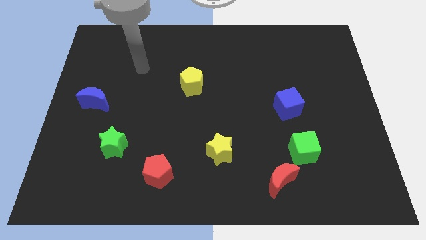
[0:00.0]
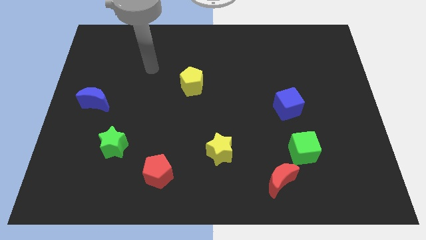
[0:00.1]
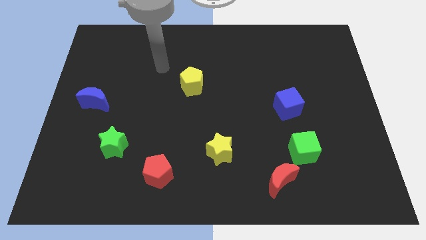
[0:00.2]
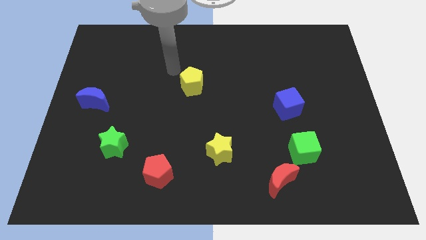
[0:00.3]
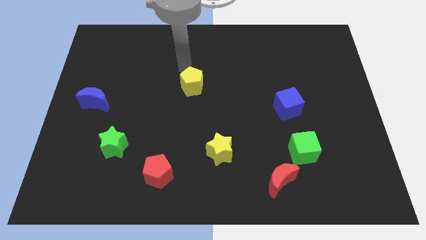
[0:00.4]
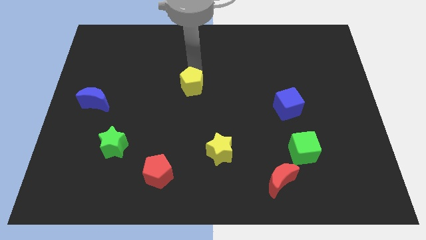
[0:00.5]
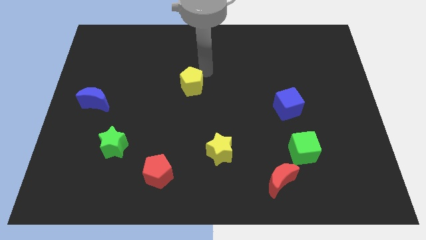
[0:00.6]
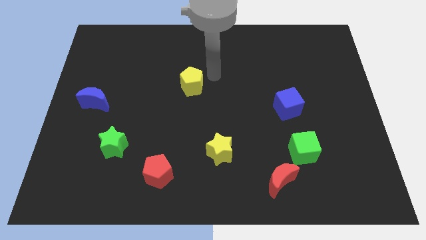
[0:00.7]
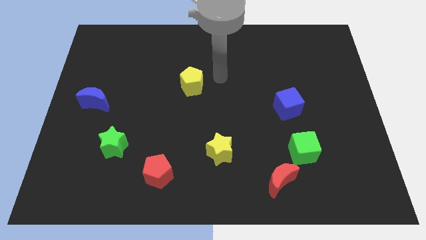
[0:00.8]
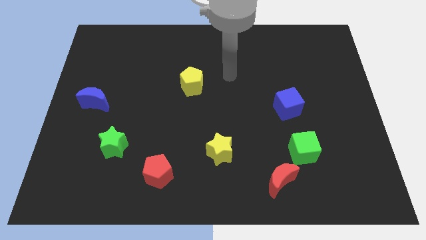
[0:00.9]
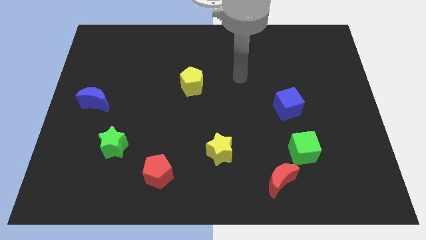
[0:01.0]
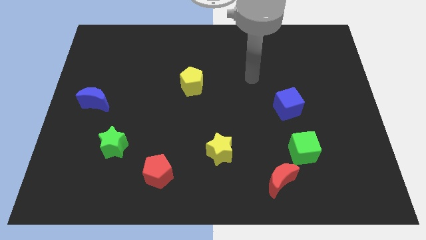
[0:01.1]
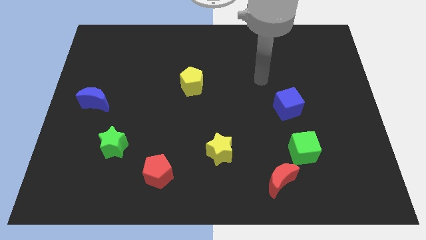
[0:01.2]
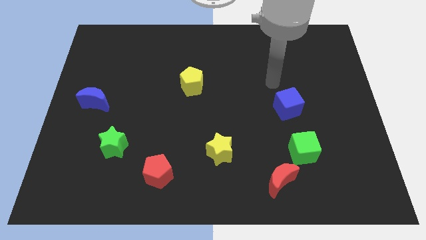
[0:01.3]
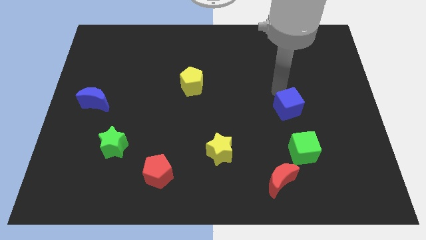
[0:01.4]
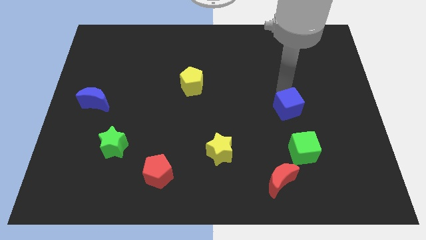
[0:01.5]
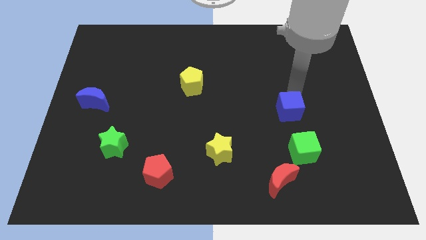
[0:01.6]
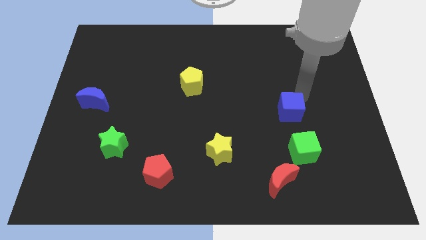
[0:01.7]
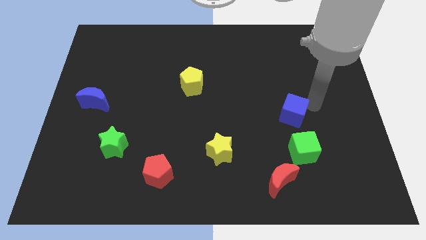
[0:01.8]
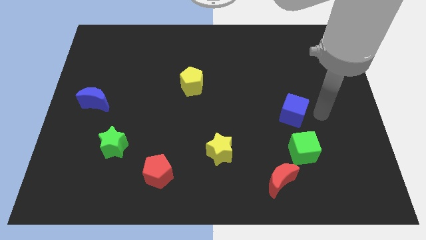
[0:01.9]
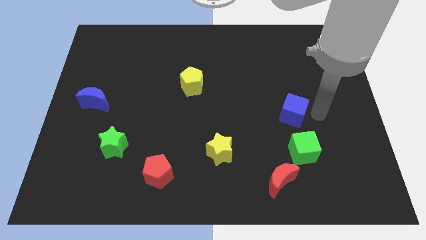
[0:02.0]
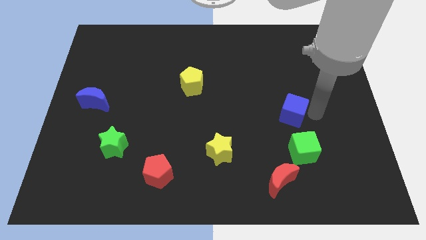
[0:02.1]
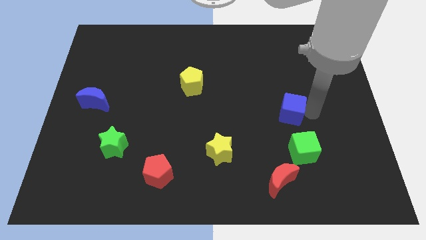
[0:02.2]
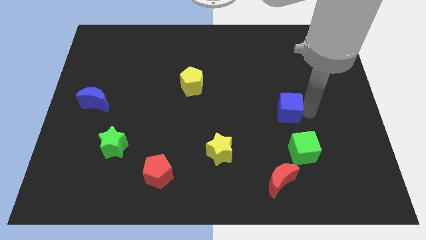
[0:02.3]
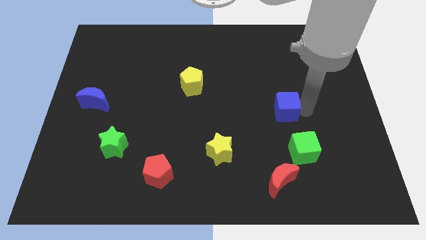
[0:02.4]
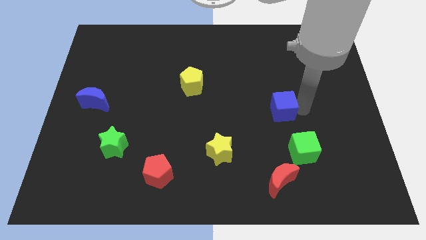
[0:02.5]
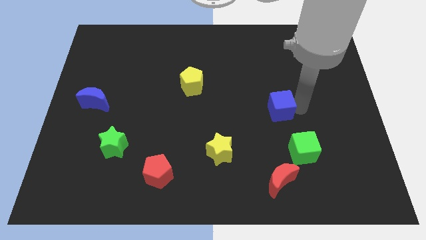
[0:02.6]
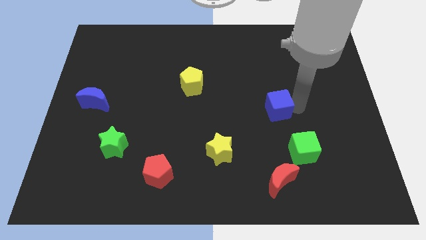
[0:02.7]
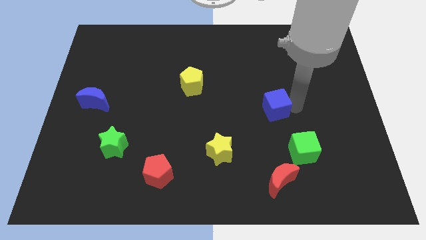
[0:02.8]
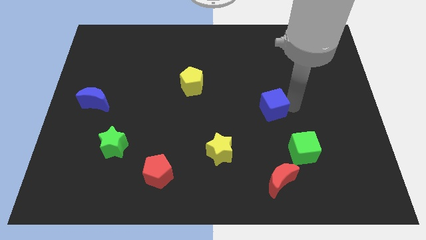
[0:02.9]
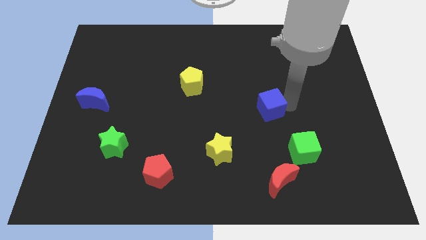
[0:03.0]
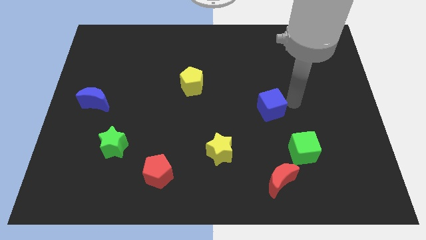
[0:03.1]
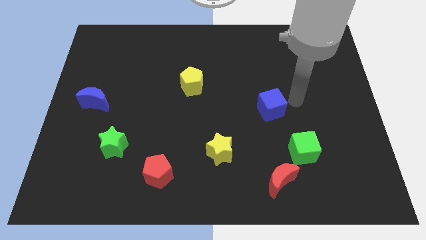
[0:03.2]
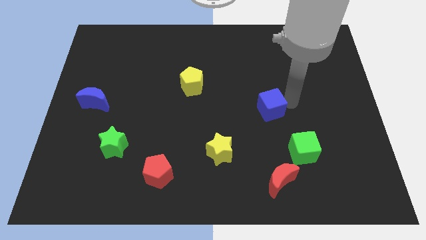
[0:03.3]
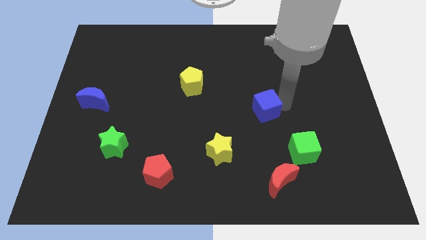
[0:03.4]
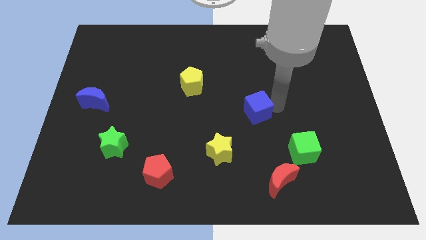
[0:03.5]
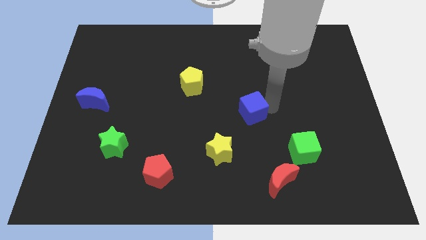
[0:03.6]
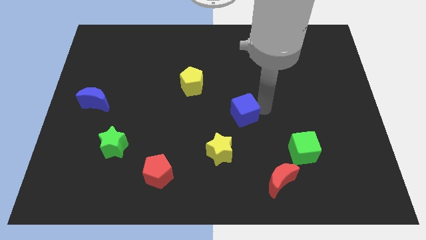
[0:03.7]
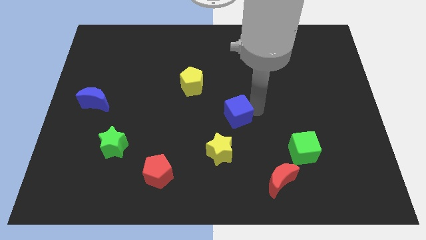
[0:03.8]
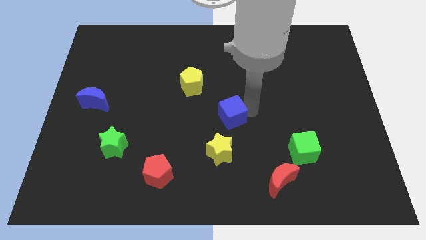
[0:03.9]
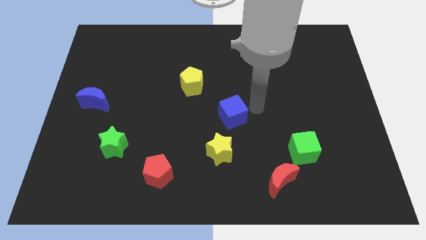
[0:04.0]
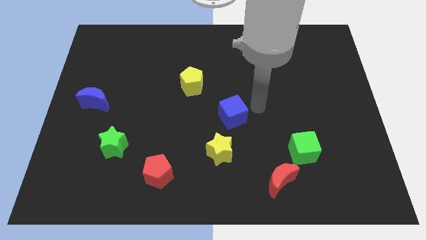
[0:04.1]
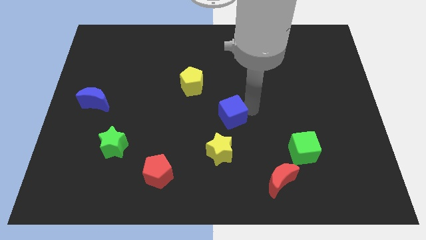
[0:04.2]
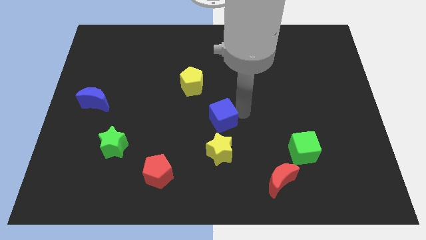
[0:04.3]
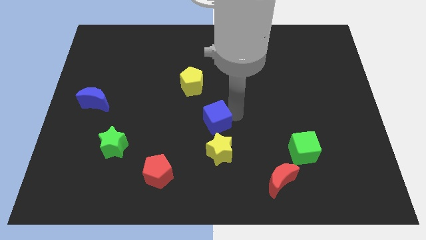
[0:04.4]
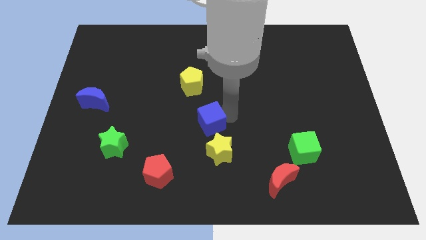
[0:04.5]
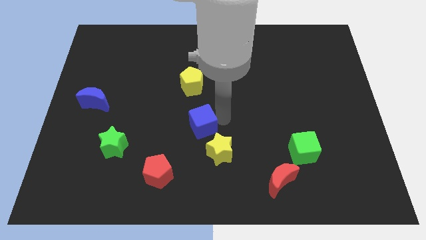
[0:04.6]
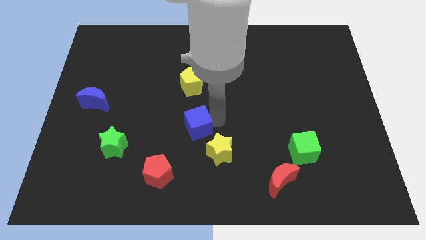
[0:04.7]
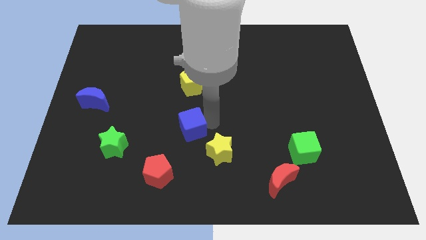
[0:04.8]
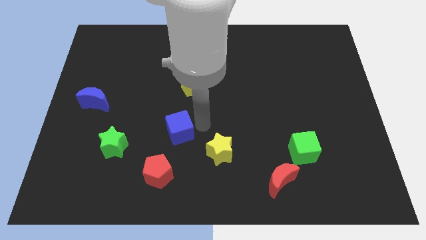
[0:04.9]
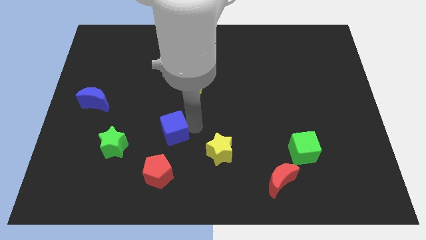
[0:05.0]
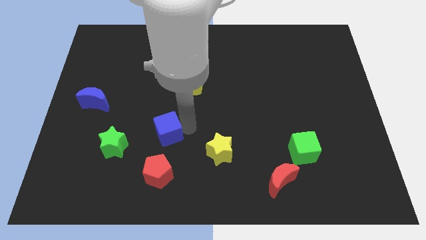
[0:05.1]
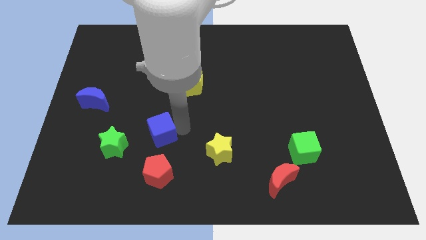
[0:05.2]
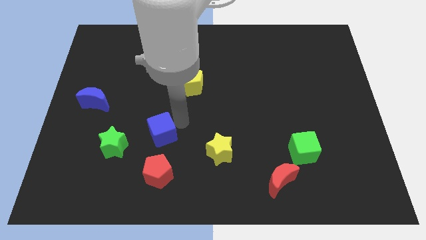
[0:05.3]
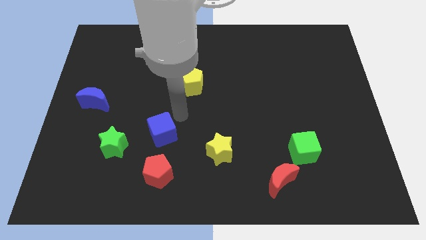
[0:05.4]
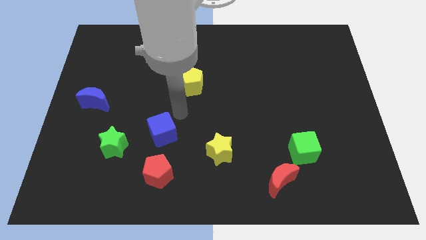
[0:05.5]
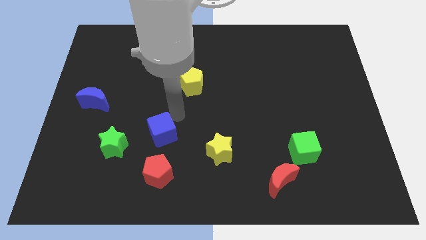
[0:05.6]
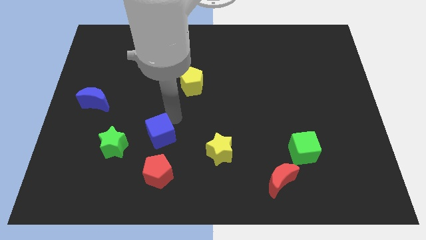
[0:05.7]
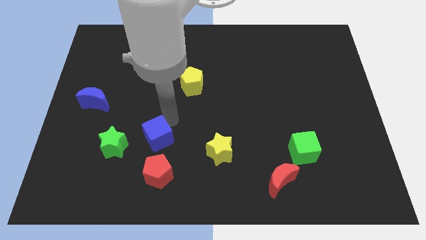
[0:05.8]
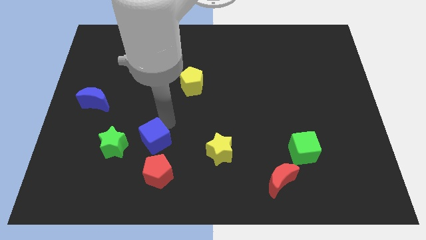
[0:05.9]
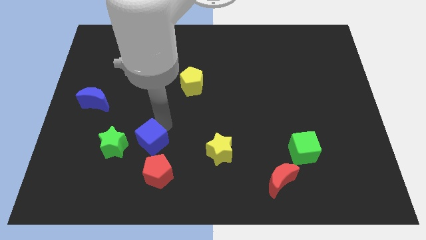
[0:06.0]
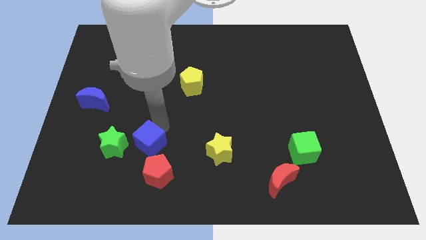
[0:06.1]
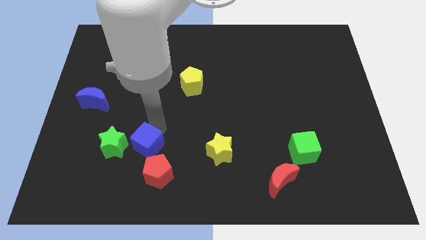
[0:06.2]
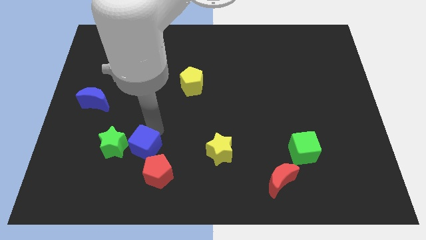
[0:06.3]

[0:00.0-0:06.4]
push the blue cube to the bottom right of the green star
